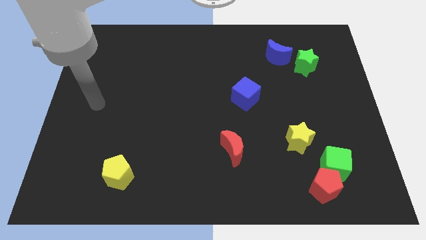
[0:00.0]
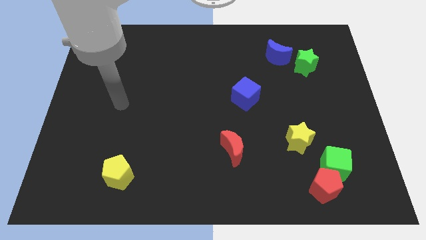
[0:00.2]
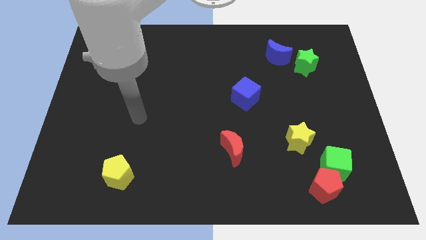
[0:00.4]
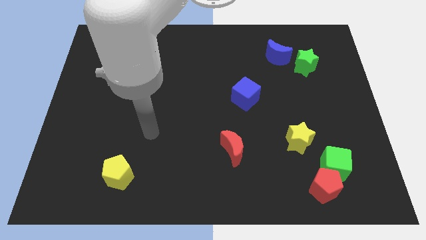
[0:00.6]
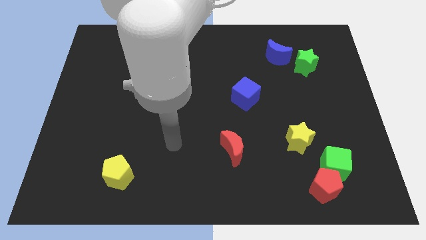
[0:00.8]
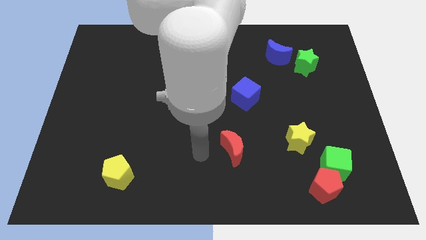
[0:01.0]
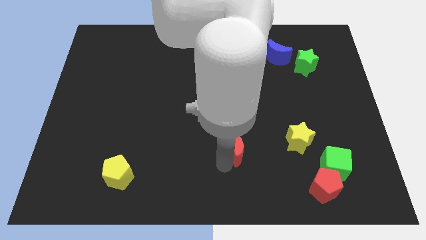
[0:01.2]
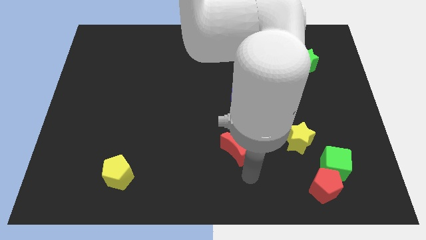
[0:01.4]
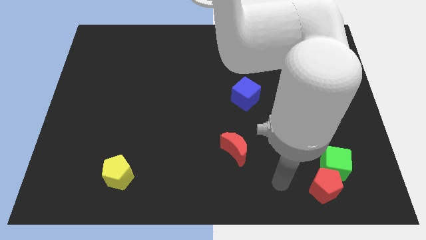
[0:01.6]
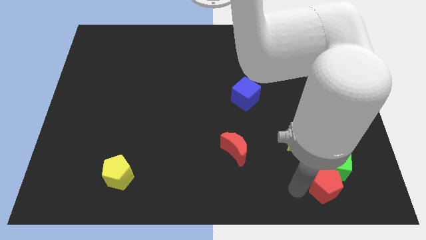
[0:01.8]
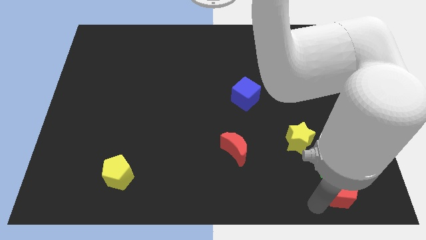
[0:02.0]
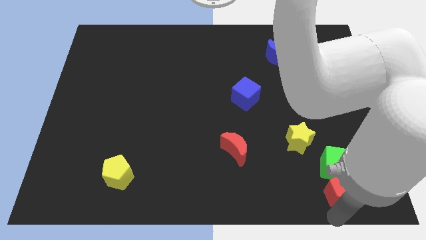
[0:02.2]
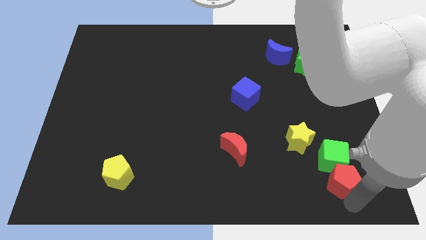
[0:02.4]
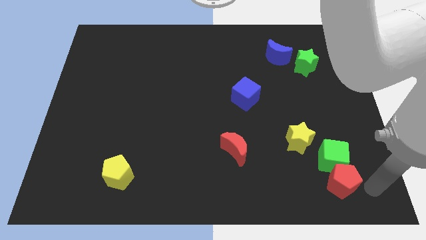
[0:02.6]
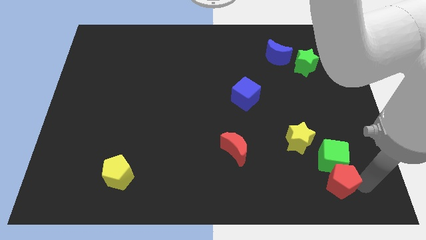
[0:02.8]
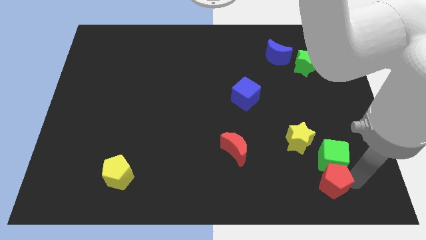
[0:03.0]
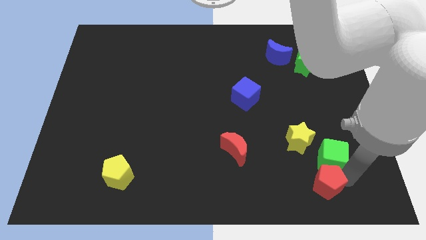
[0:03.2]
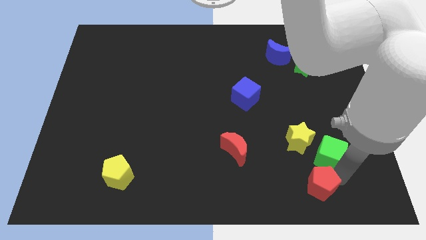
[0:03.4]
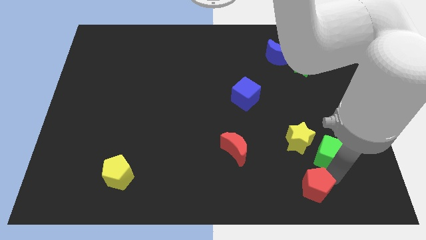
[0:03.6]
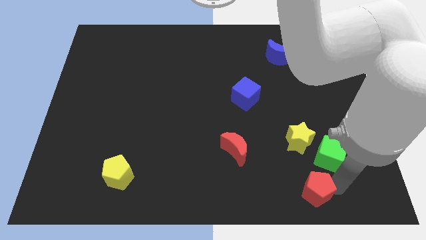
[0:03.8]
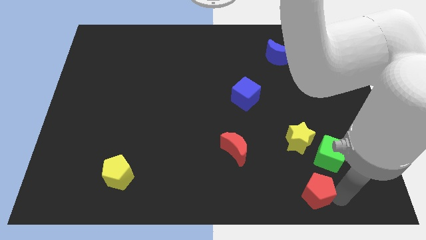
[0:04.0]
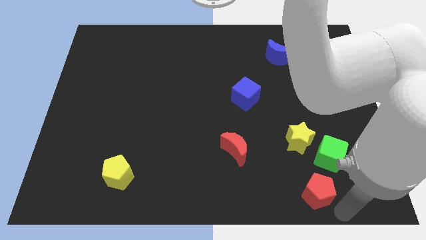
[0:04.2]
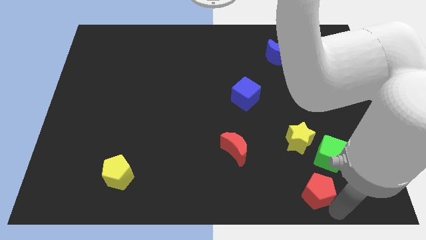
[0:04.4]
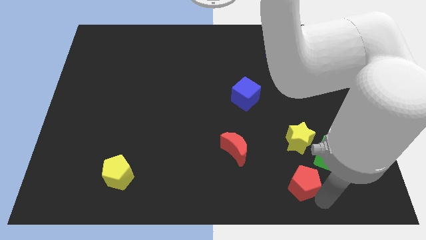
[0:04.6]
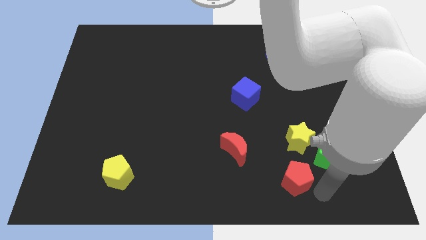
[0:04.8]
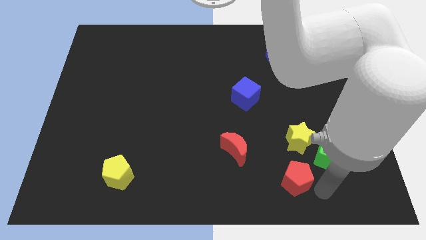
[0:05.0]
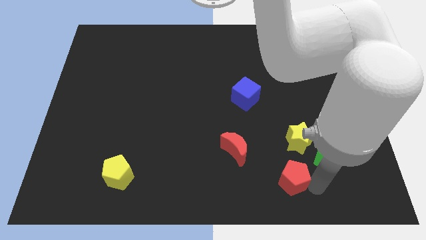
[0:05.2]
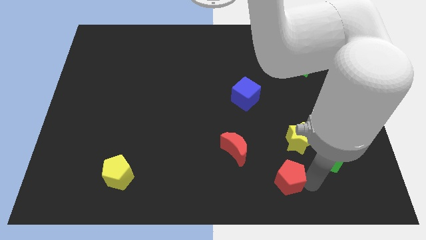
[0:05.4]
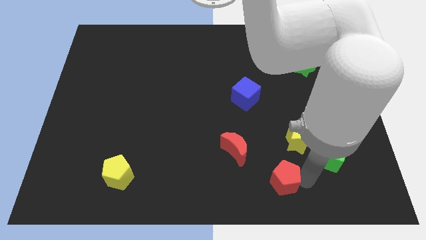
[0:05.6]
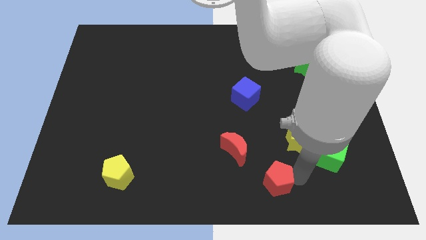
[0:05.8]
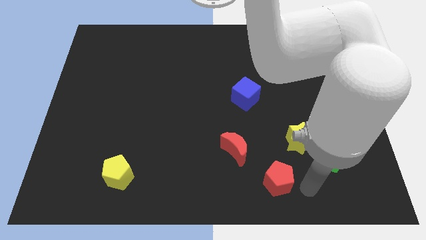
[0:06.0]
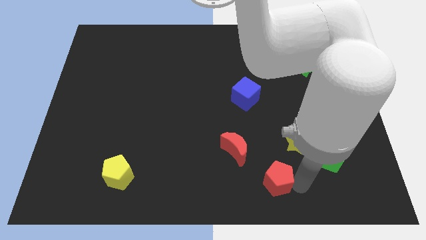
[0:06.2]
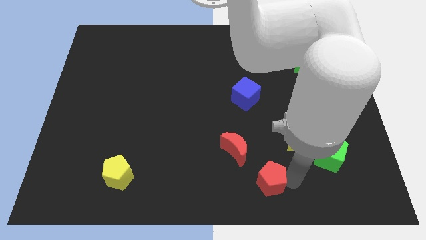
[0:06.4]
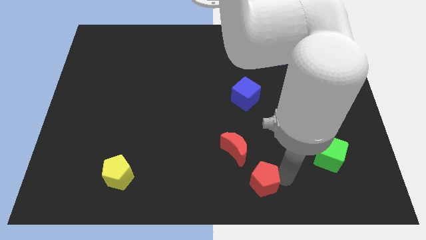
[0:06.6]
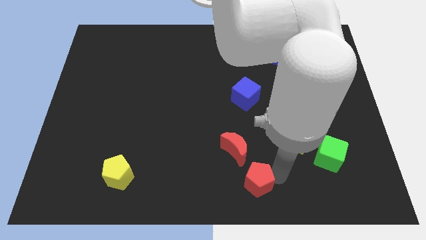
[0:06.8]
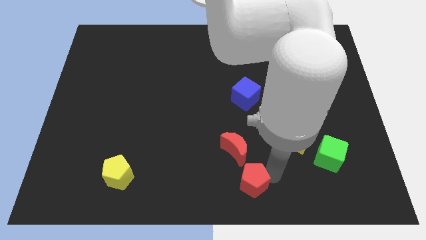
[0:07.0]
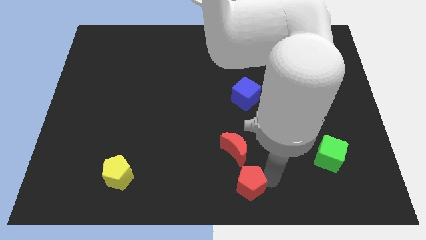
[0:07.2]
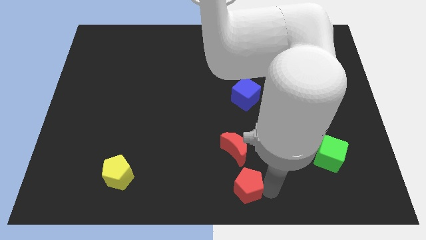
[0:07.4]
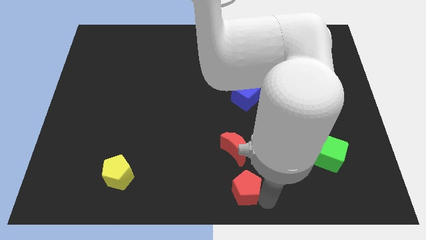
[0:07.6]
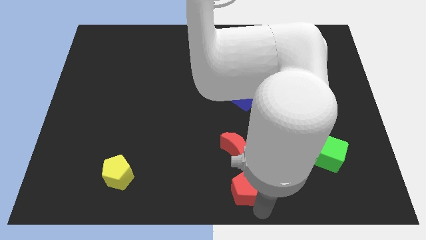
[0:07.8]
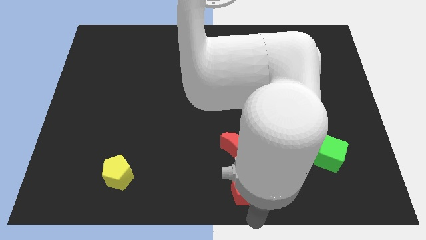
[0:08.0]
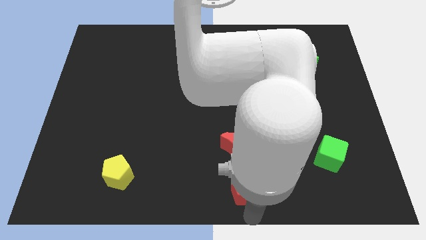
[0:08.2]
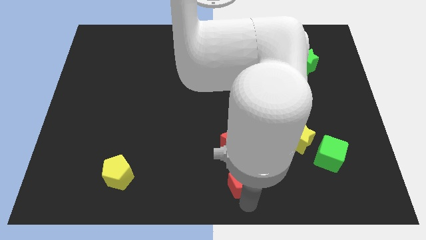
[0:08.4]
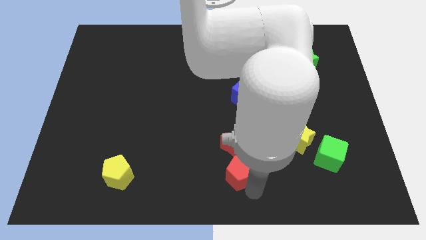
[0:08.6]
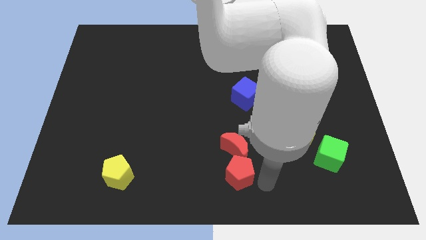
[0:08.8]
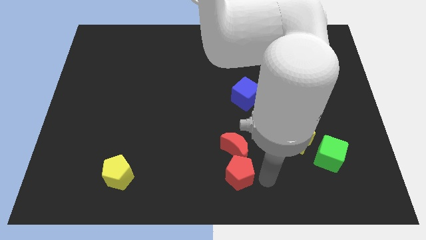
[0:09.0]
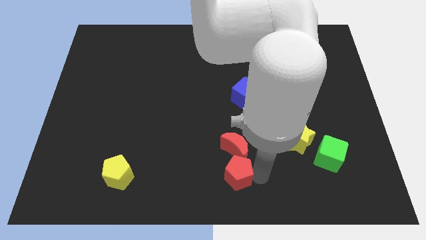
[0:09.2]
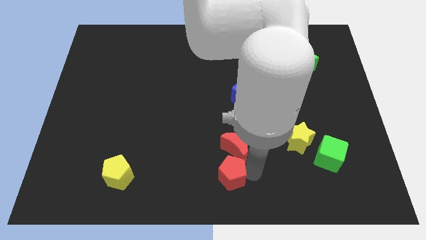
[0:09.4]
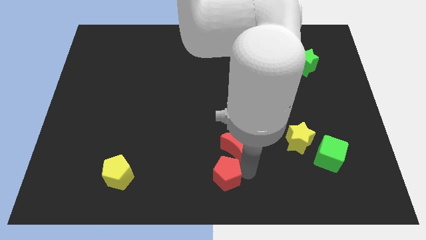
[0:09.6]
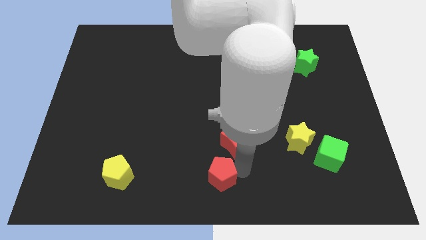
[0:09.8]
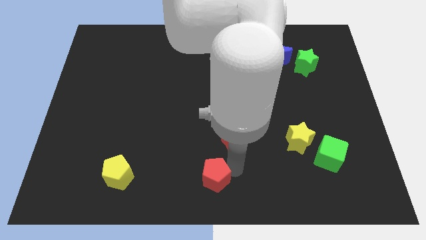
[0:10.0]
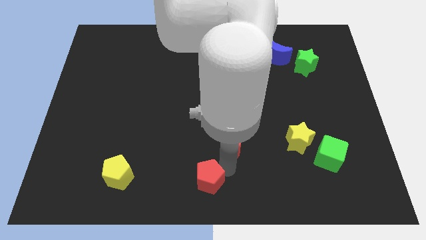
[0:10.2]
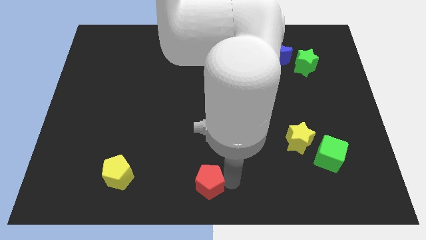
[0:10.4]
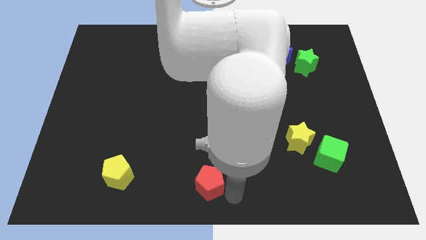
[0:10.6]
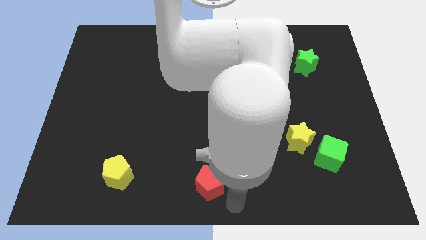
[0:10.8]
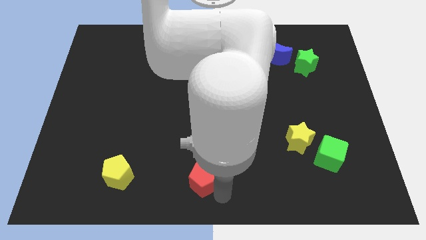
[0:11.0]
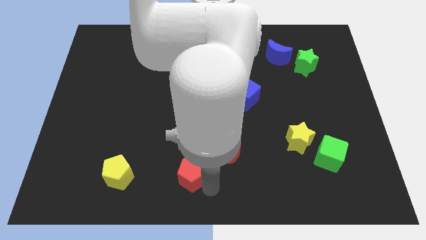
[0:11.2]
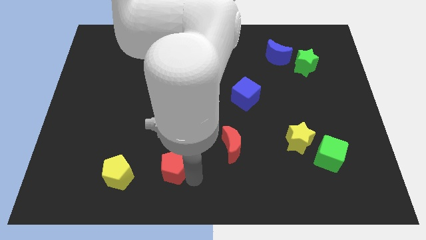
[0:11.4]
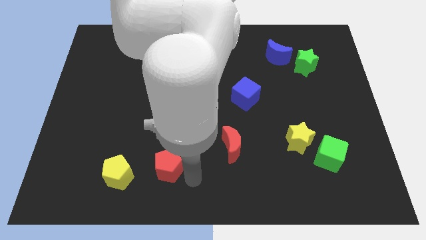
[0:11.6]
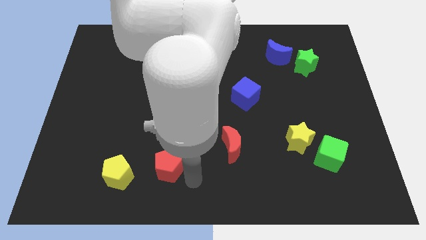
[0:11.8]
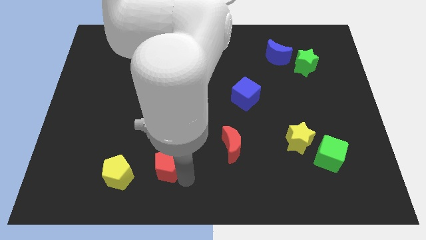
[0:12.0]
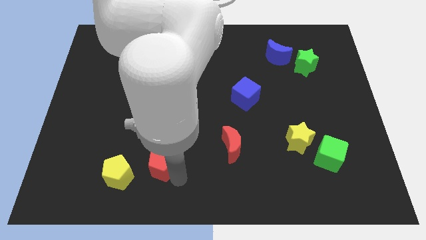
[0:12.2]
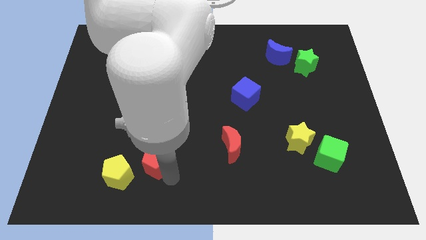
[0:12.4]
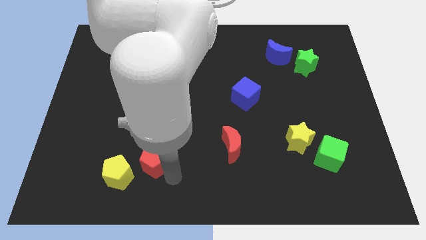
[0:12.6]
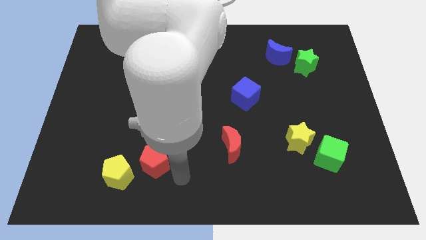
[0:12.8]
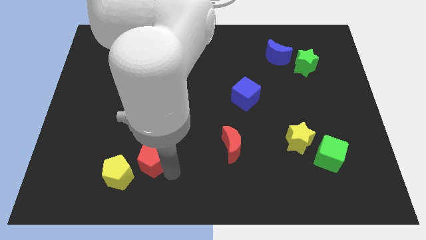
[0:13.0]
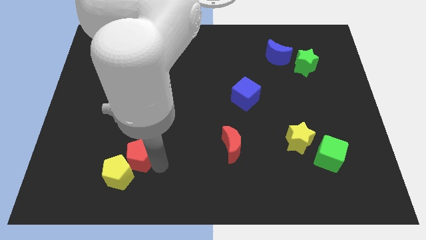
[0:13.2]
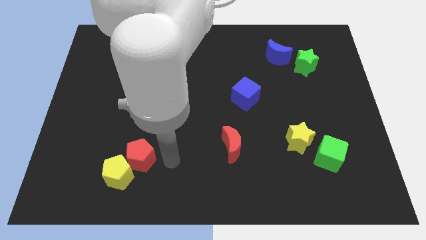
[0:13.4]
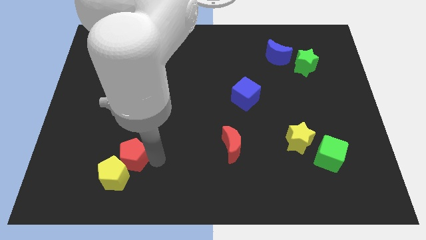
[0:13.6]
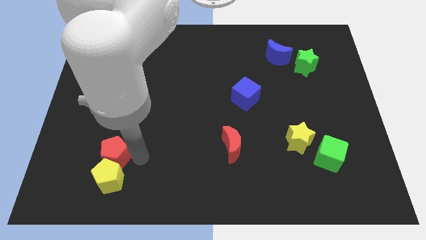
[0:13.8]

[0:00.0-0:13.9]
move the red pentagon to the top left side of the yellow pentagon

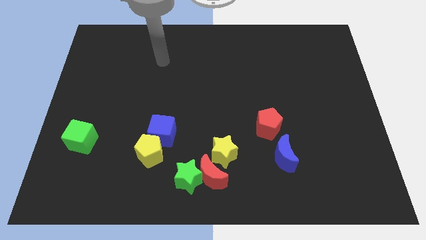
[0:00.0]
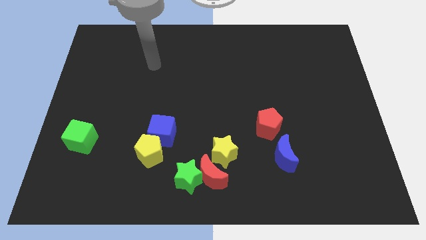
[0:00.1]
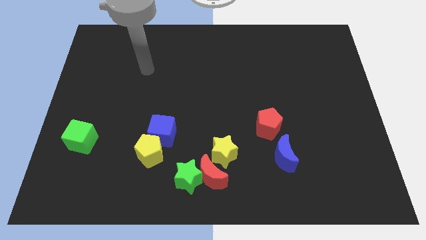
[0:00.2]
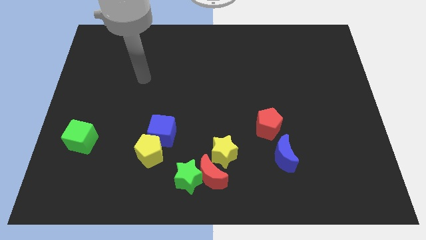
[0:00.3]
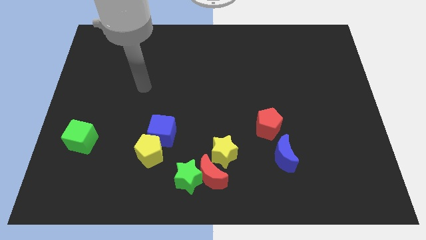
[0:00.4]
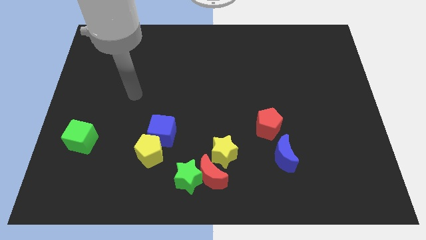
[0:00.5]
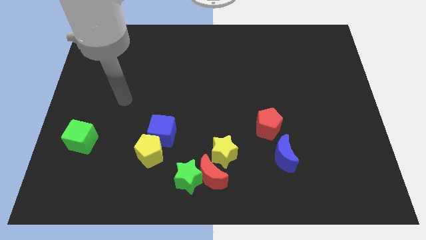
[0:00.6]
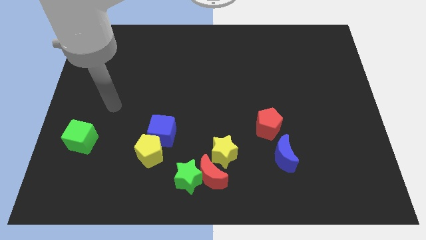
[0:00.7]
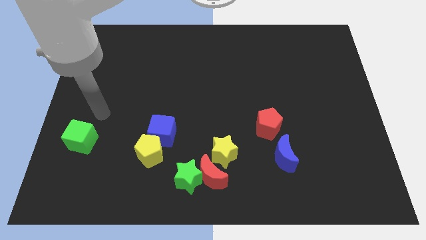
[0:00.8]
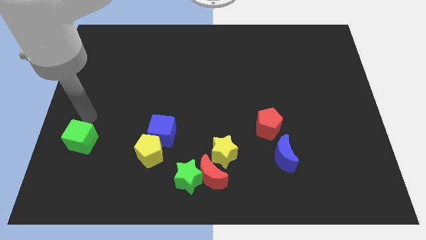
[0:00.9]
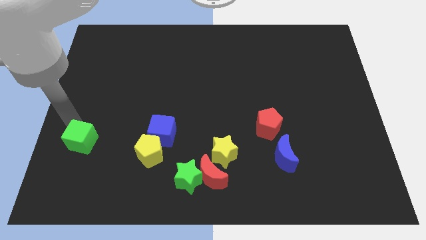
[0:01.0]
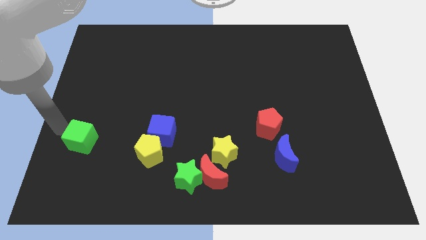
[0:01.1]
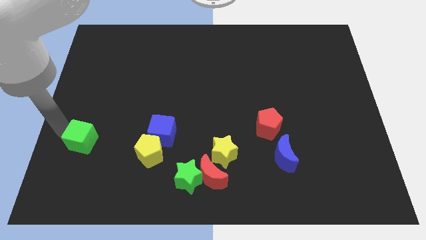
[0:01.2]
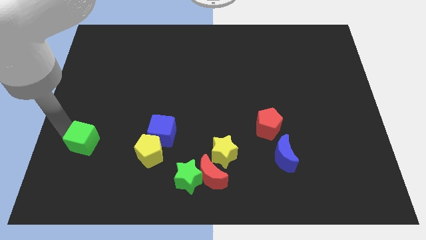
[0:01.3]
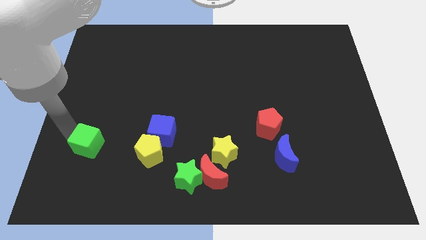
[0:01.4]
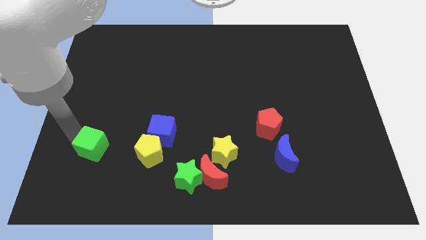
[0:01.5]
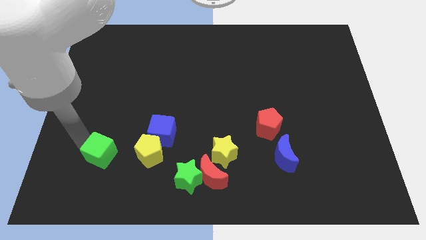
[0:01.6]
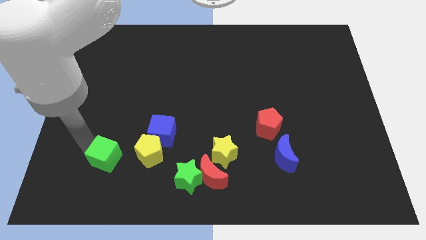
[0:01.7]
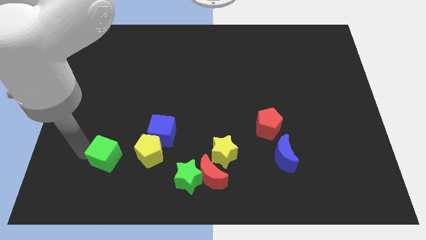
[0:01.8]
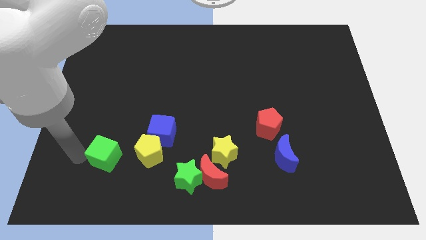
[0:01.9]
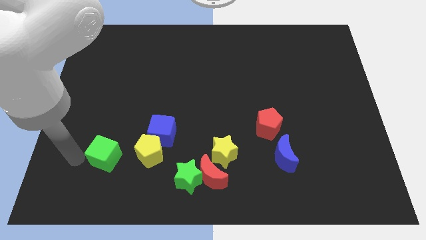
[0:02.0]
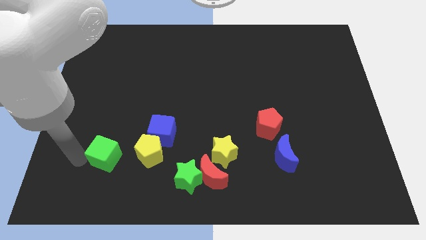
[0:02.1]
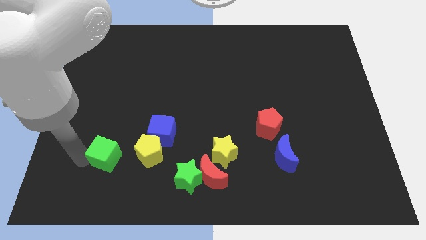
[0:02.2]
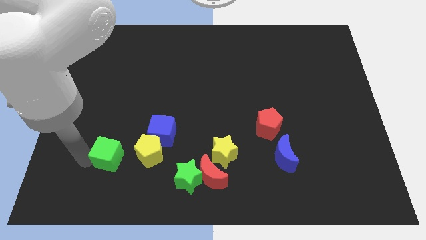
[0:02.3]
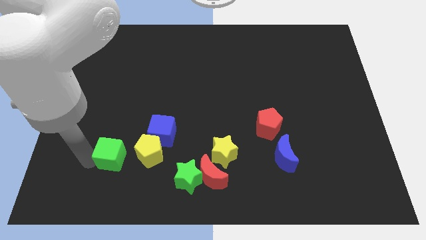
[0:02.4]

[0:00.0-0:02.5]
push the green cube diagonally down and to the left of the blue cube
